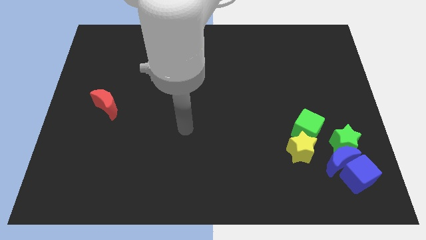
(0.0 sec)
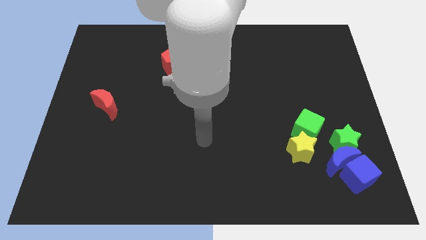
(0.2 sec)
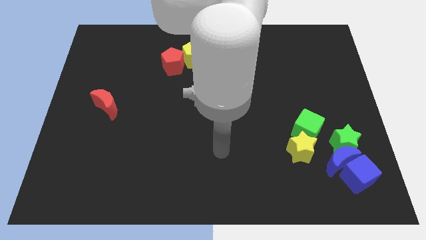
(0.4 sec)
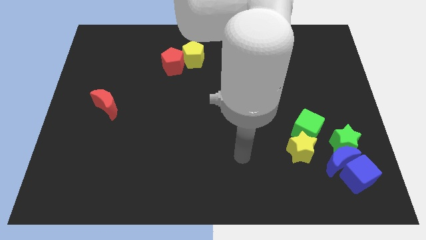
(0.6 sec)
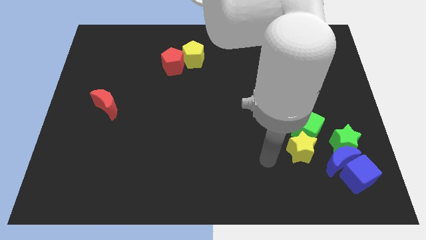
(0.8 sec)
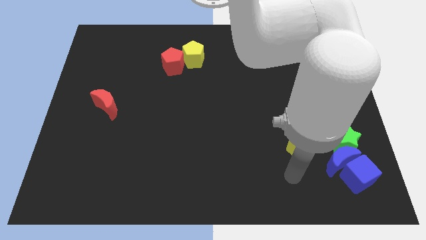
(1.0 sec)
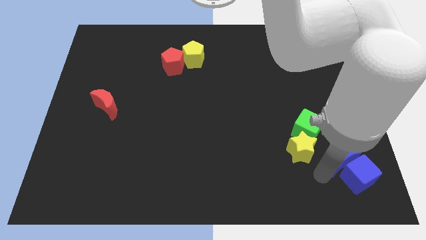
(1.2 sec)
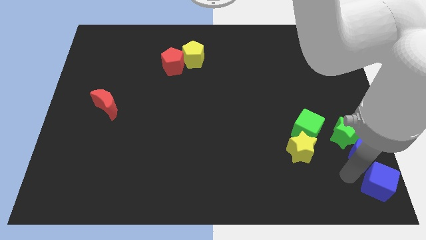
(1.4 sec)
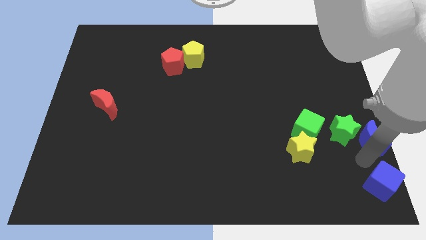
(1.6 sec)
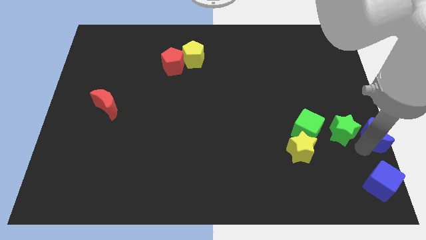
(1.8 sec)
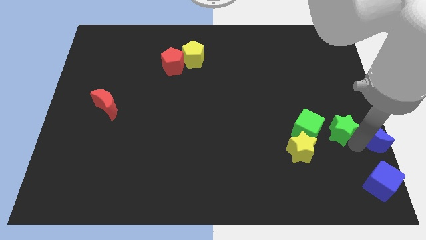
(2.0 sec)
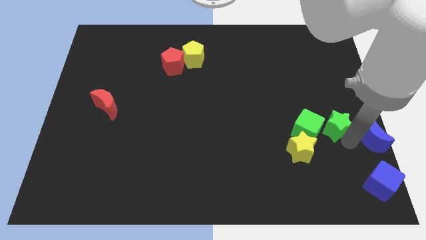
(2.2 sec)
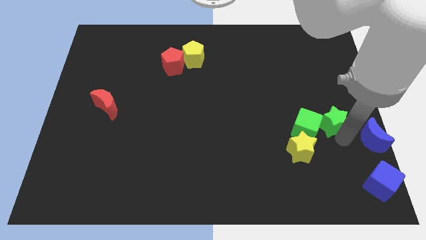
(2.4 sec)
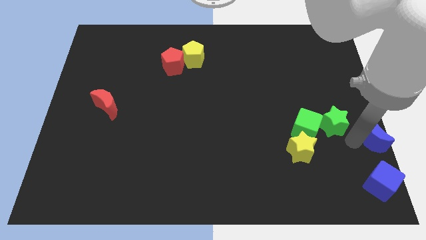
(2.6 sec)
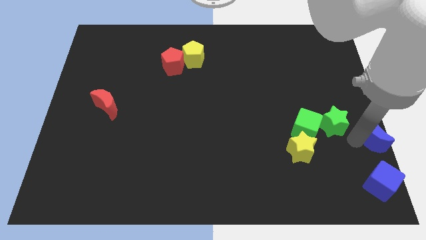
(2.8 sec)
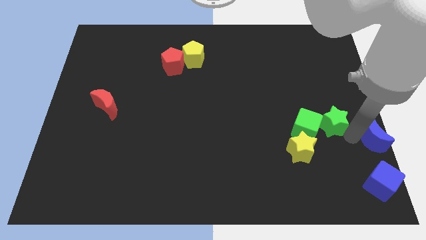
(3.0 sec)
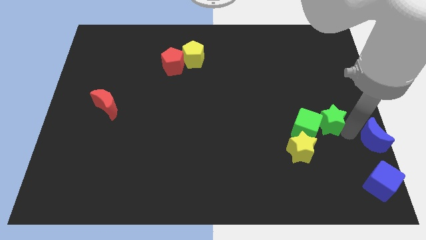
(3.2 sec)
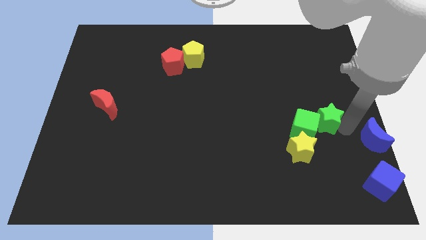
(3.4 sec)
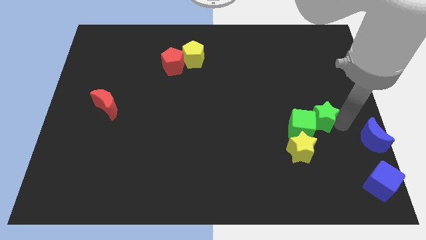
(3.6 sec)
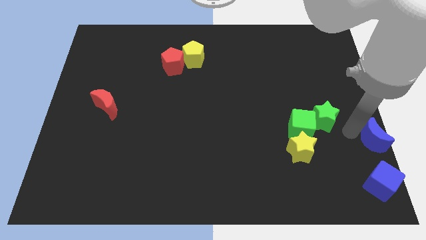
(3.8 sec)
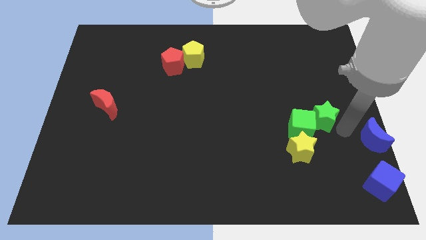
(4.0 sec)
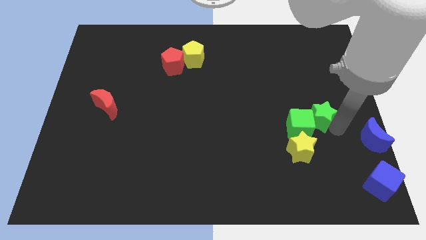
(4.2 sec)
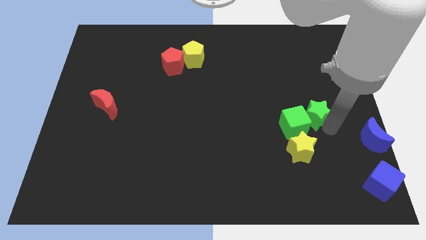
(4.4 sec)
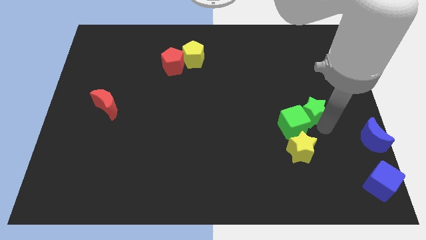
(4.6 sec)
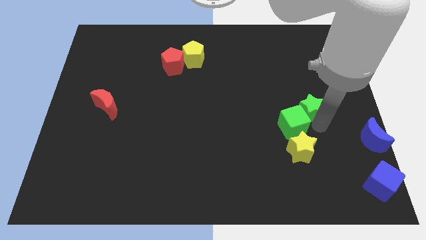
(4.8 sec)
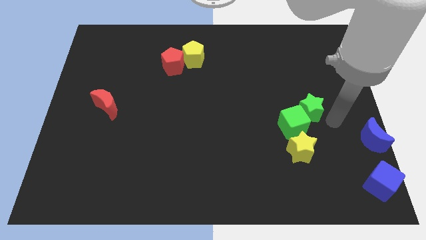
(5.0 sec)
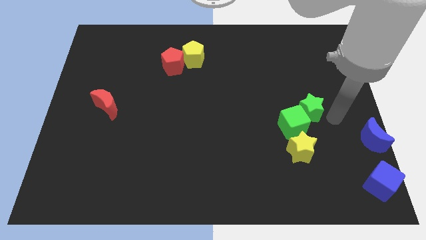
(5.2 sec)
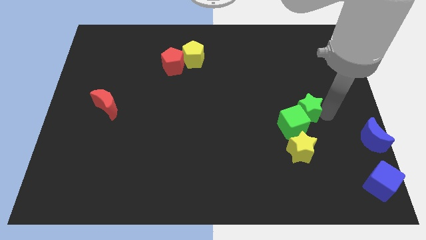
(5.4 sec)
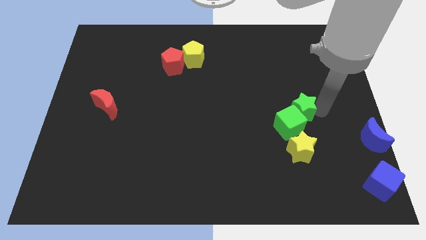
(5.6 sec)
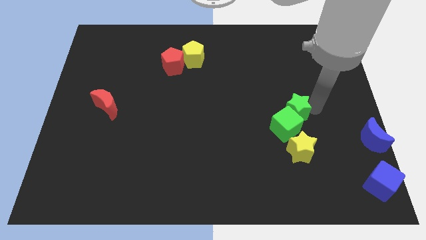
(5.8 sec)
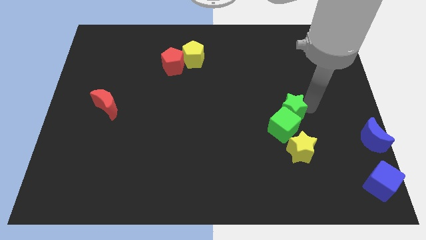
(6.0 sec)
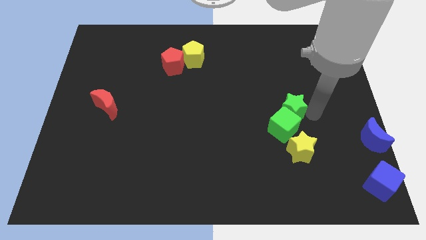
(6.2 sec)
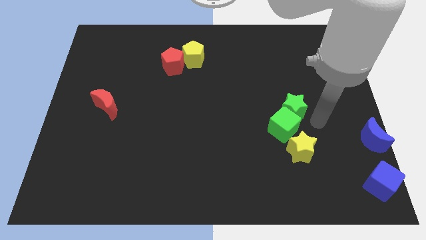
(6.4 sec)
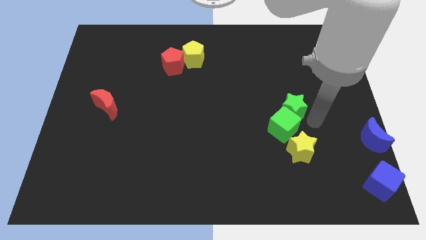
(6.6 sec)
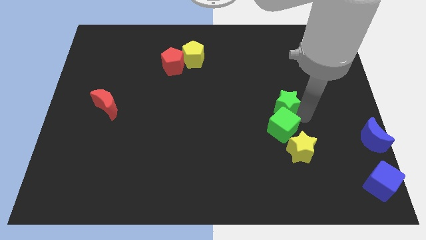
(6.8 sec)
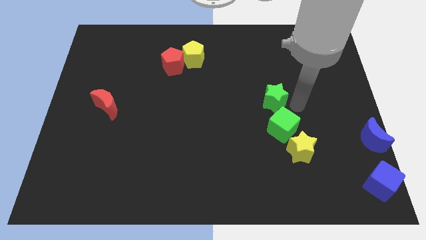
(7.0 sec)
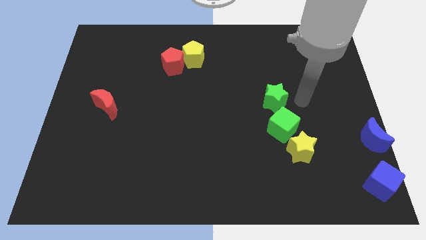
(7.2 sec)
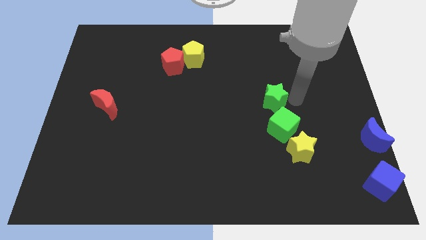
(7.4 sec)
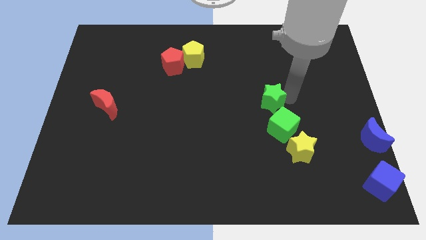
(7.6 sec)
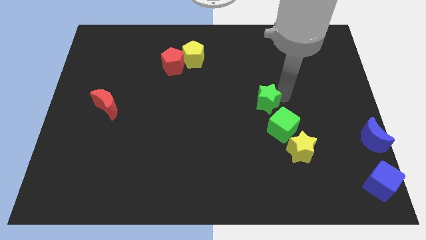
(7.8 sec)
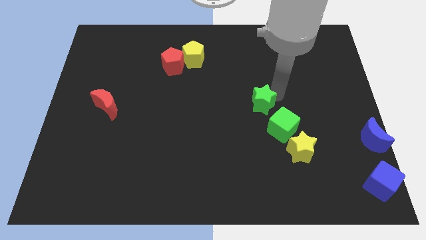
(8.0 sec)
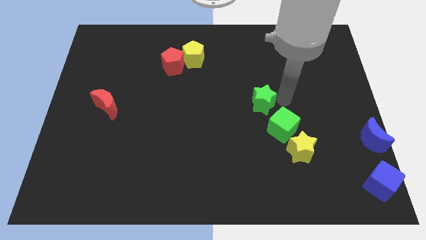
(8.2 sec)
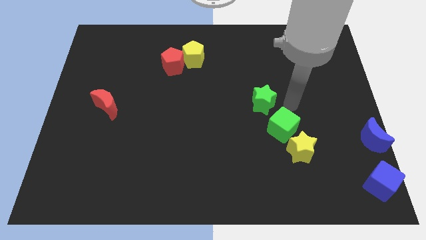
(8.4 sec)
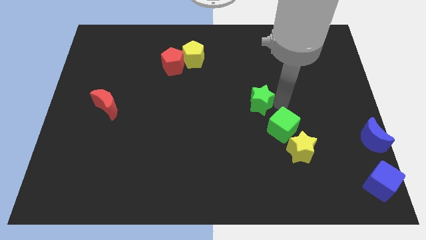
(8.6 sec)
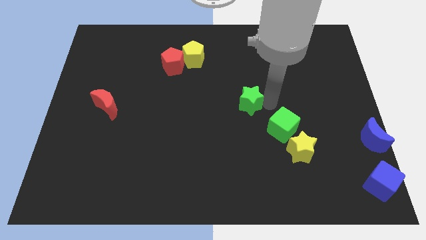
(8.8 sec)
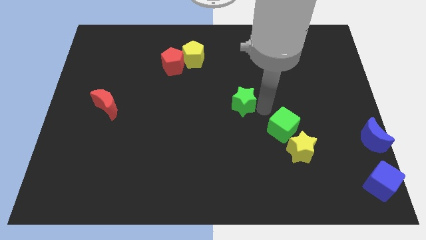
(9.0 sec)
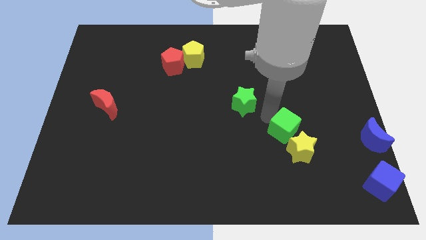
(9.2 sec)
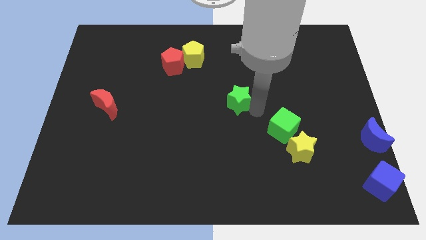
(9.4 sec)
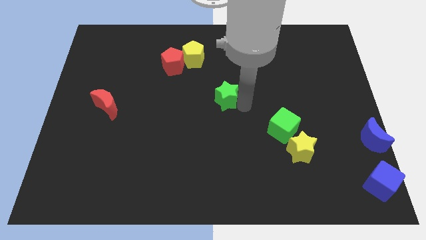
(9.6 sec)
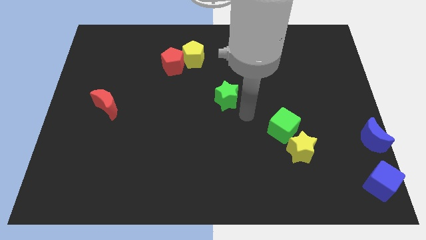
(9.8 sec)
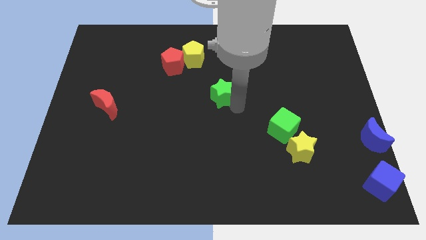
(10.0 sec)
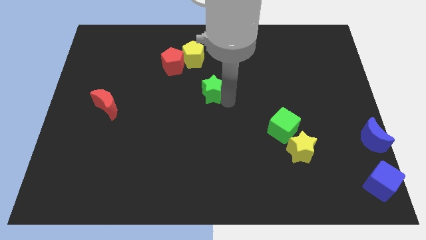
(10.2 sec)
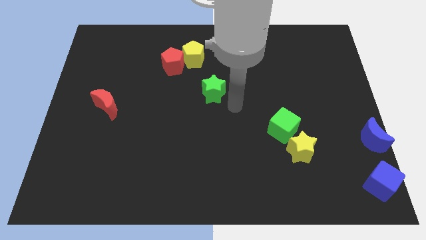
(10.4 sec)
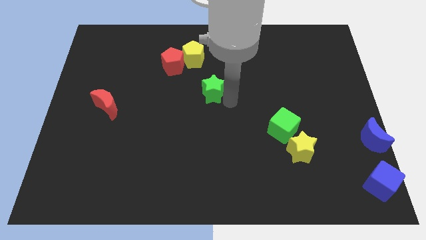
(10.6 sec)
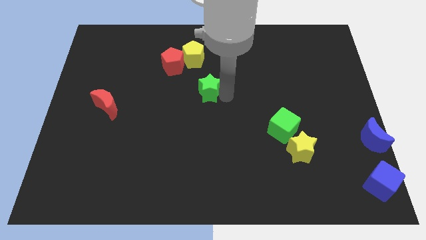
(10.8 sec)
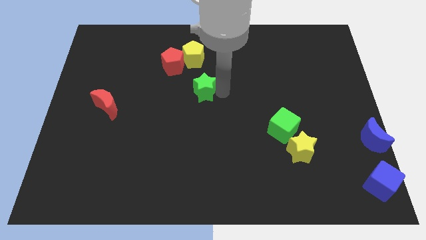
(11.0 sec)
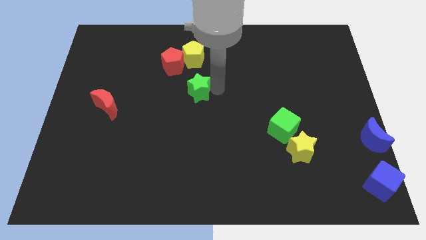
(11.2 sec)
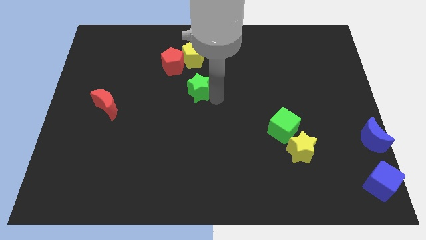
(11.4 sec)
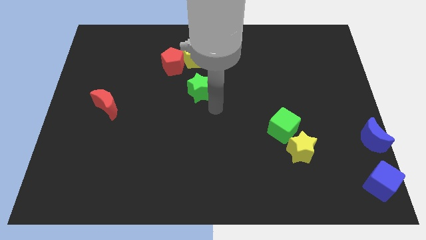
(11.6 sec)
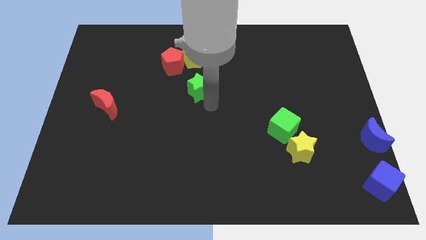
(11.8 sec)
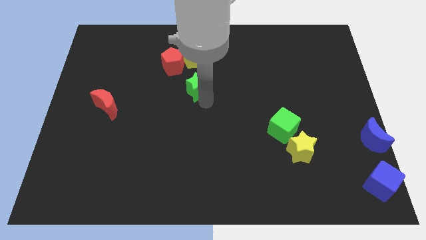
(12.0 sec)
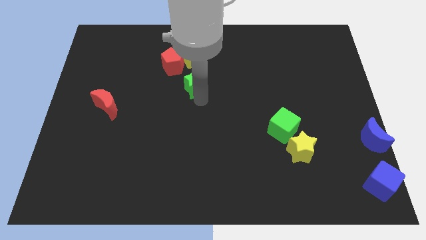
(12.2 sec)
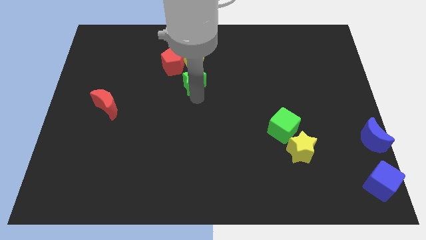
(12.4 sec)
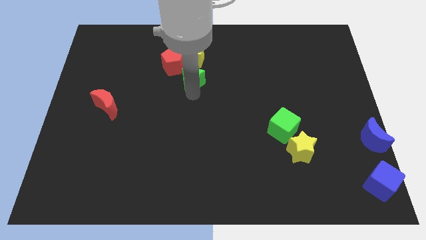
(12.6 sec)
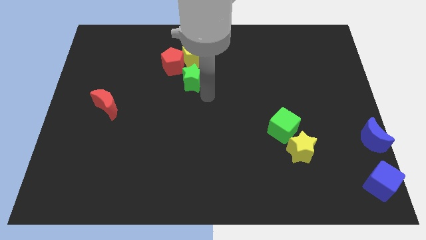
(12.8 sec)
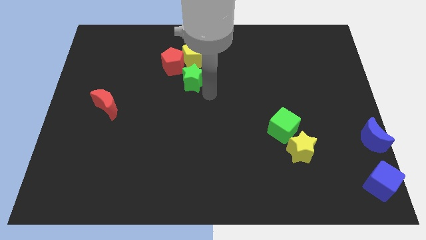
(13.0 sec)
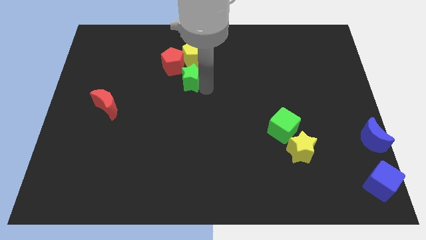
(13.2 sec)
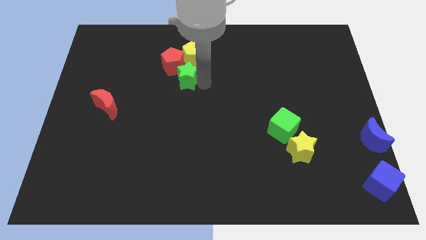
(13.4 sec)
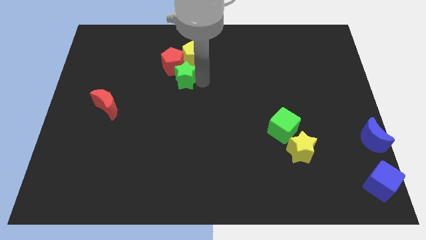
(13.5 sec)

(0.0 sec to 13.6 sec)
move the green star next to the red pentagon
